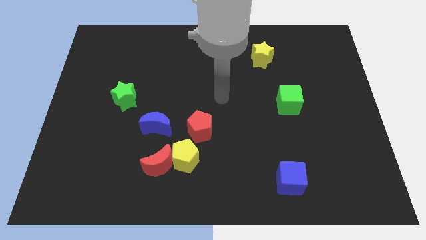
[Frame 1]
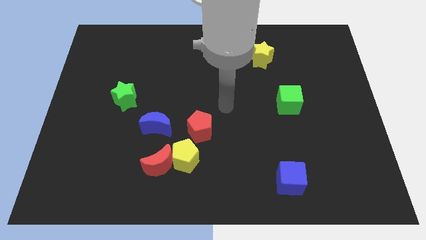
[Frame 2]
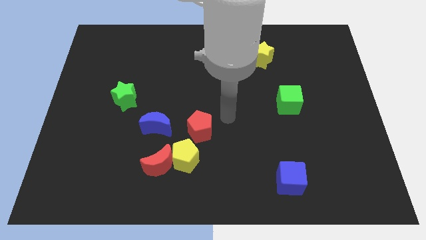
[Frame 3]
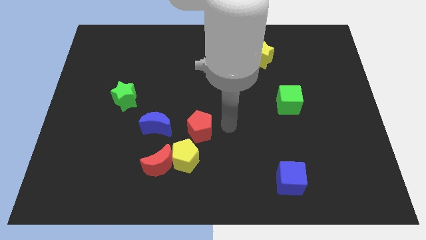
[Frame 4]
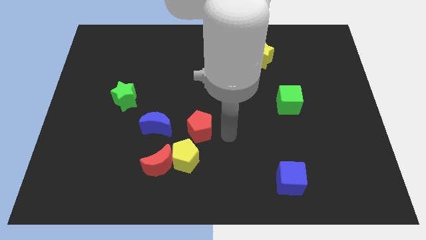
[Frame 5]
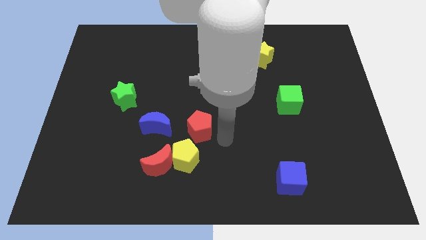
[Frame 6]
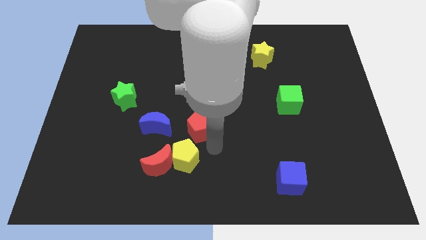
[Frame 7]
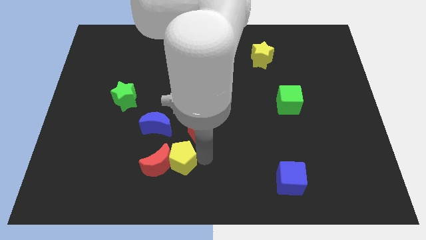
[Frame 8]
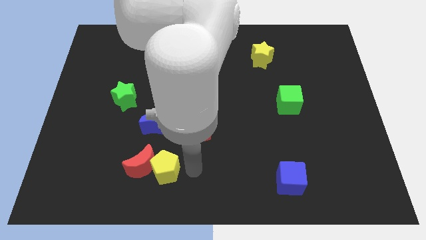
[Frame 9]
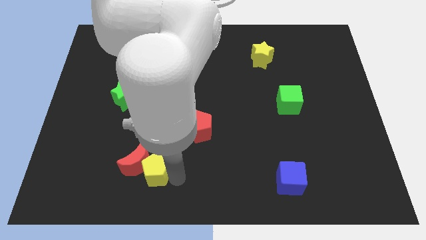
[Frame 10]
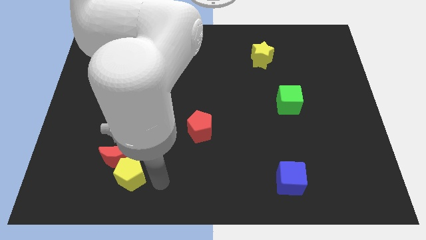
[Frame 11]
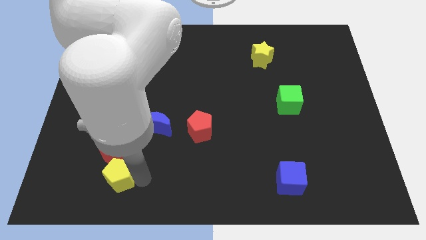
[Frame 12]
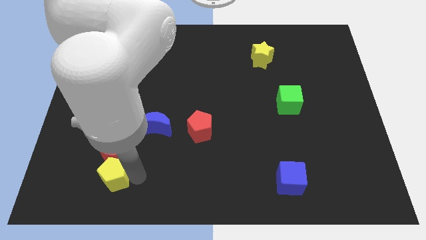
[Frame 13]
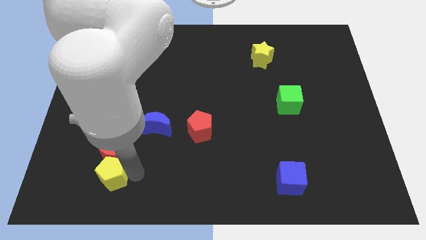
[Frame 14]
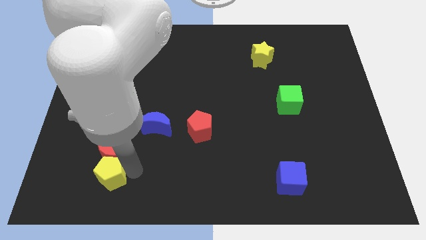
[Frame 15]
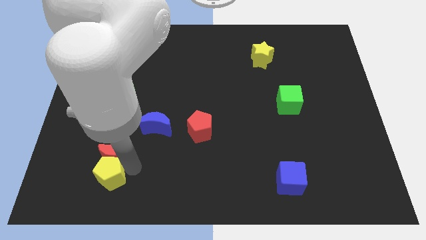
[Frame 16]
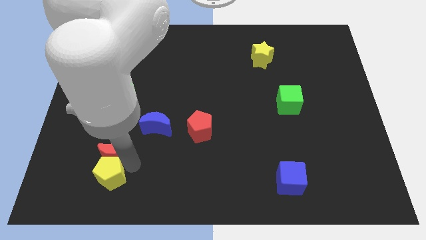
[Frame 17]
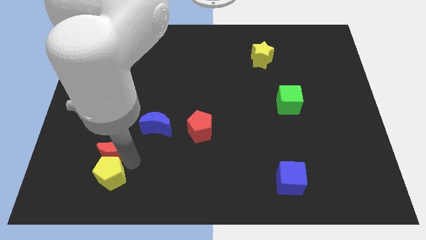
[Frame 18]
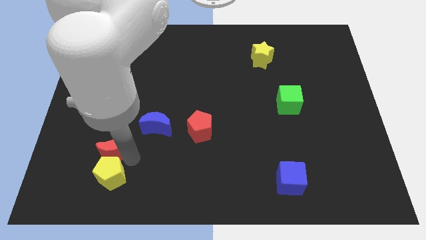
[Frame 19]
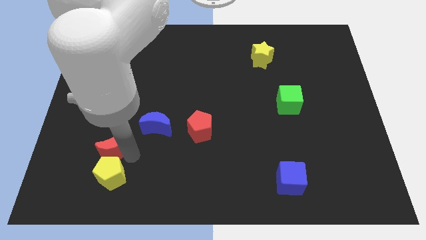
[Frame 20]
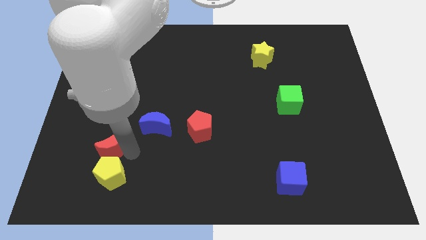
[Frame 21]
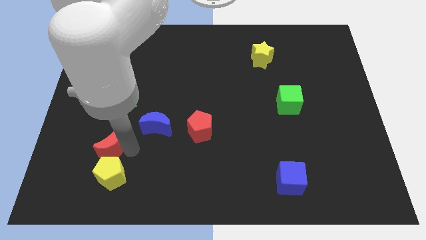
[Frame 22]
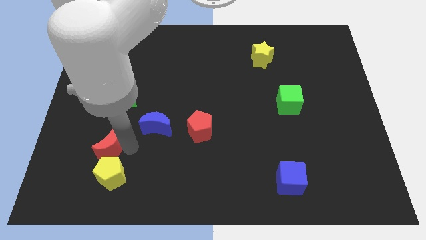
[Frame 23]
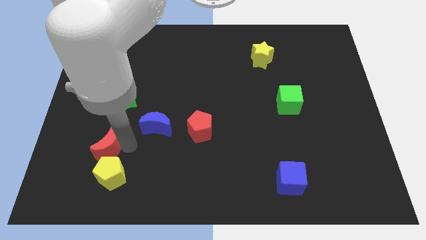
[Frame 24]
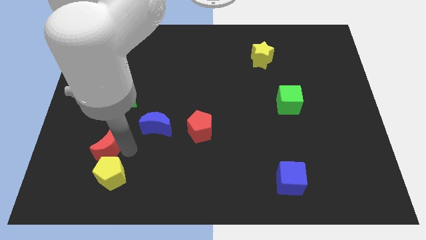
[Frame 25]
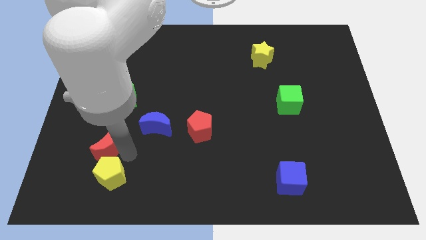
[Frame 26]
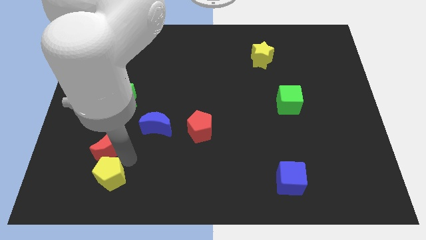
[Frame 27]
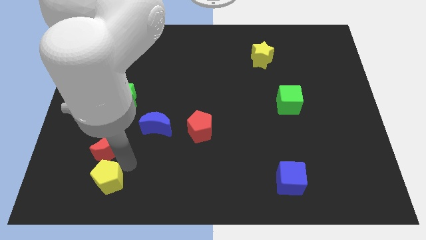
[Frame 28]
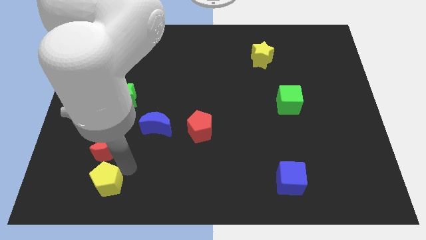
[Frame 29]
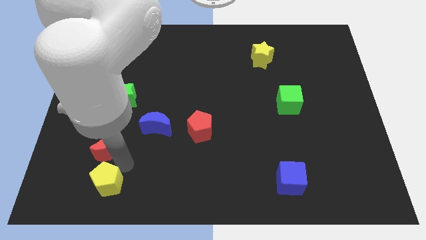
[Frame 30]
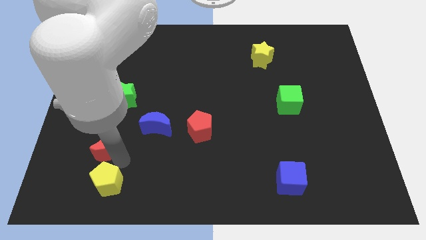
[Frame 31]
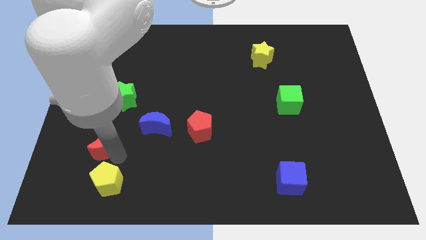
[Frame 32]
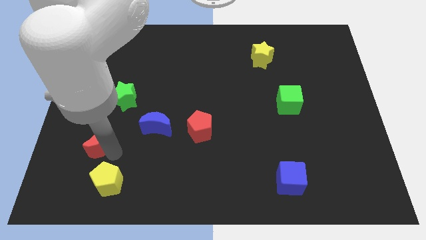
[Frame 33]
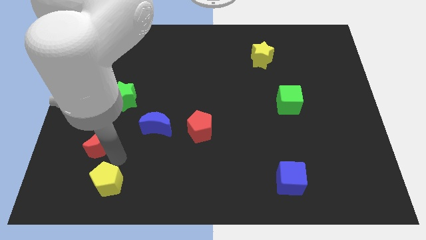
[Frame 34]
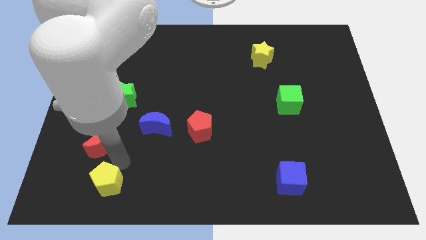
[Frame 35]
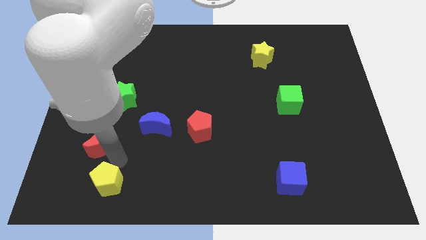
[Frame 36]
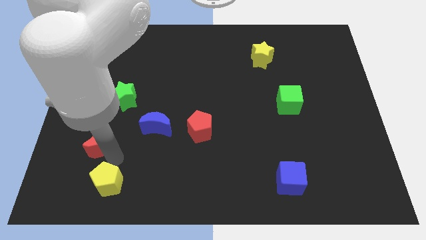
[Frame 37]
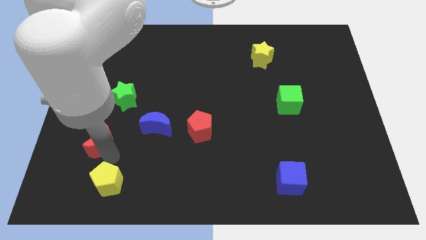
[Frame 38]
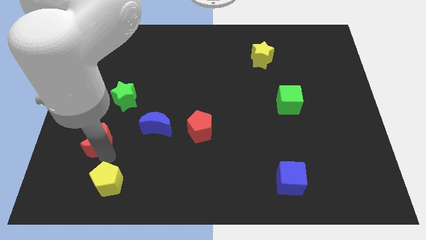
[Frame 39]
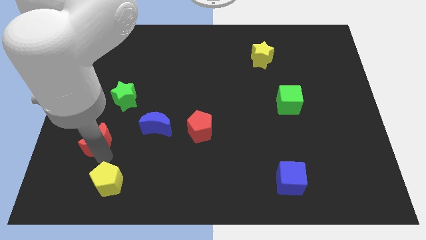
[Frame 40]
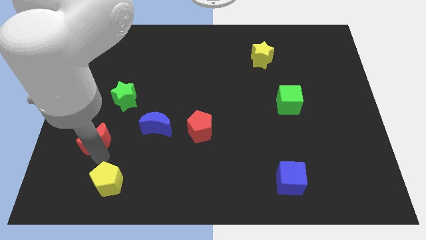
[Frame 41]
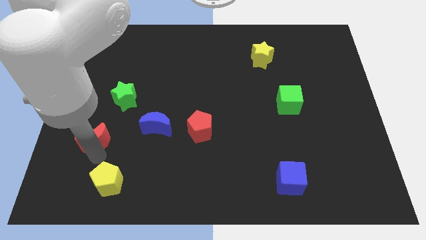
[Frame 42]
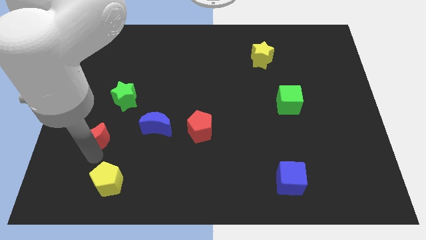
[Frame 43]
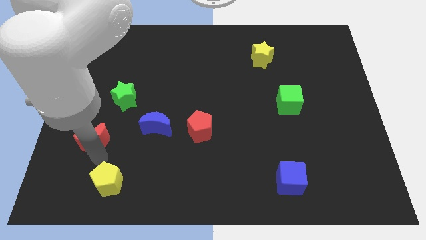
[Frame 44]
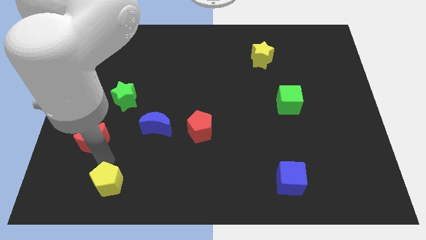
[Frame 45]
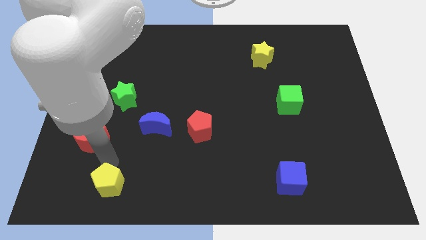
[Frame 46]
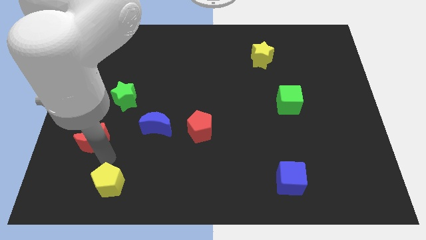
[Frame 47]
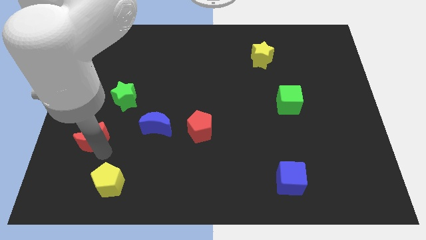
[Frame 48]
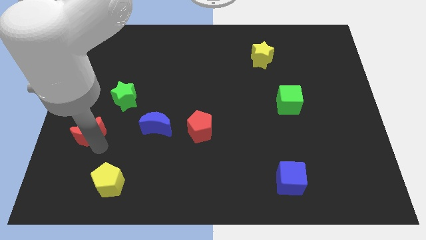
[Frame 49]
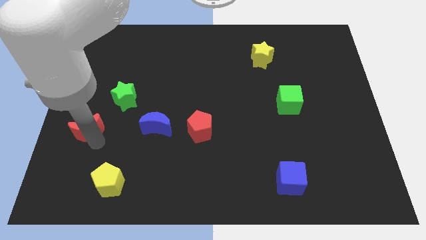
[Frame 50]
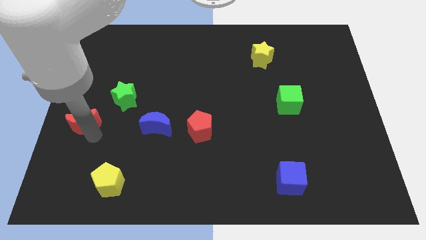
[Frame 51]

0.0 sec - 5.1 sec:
push the red moon to the center left

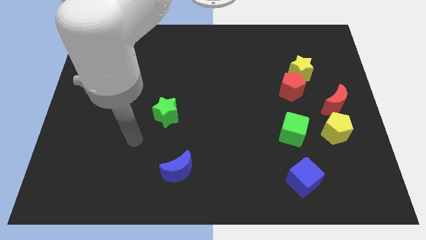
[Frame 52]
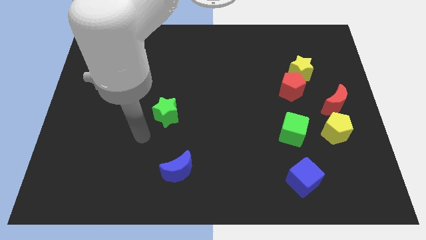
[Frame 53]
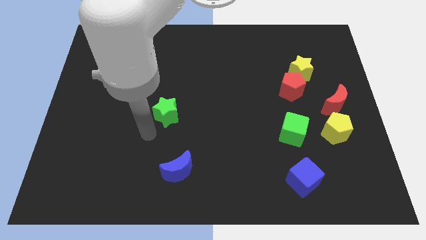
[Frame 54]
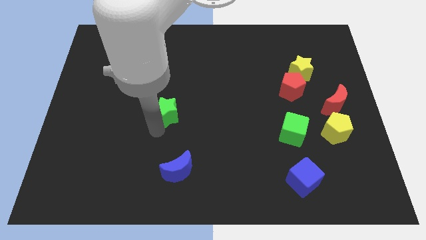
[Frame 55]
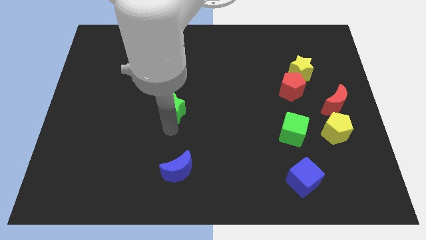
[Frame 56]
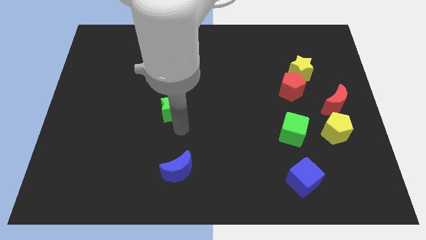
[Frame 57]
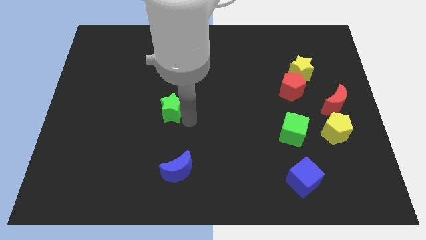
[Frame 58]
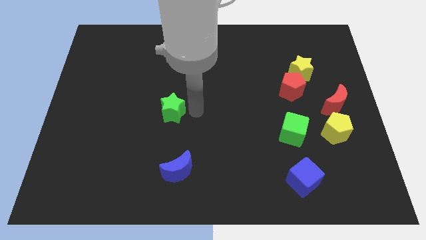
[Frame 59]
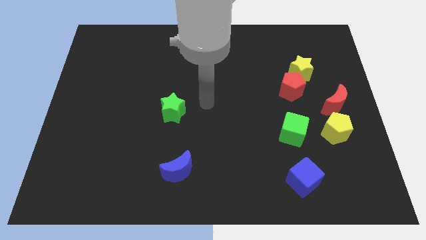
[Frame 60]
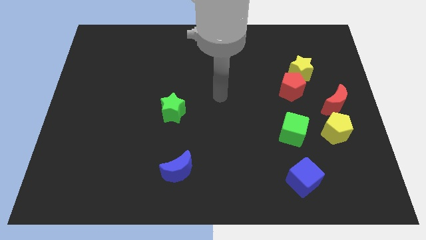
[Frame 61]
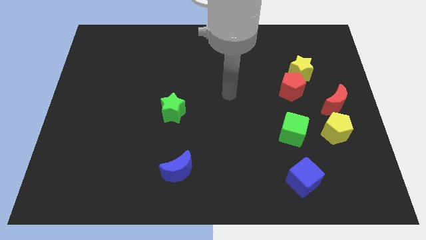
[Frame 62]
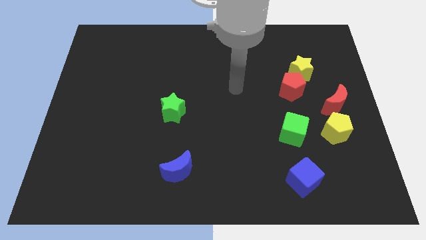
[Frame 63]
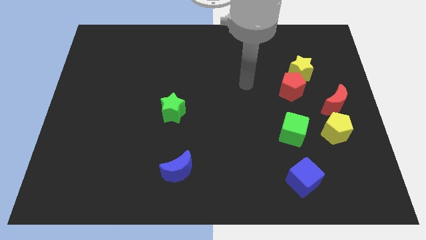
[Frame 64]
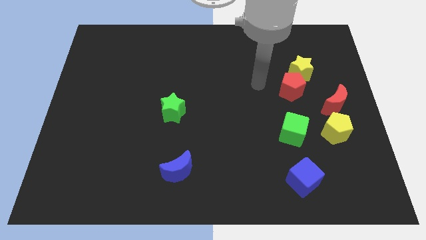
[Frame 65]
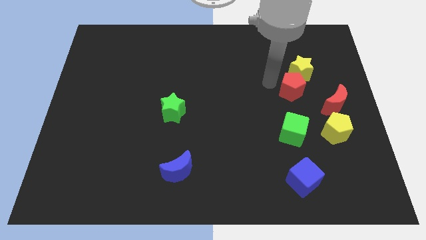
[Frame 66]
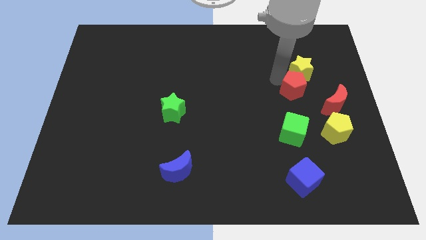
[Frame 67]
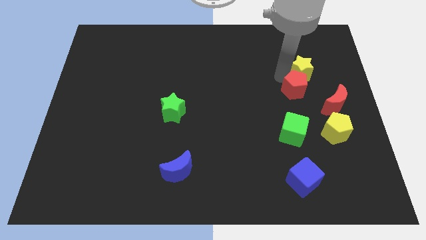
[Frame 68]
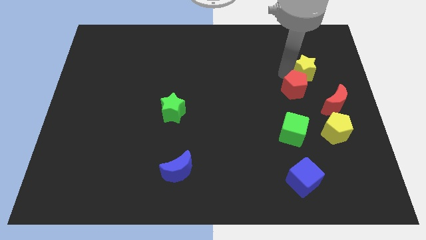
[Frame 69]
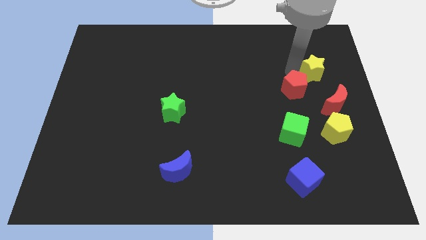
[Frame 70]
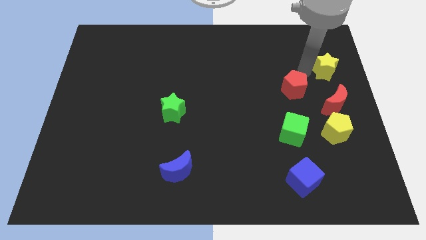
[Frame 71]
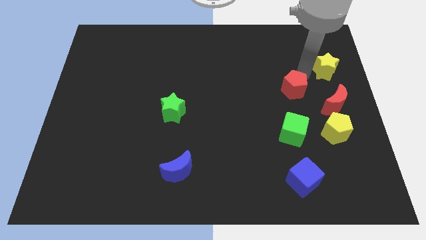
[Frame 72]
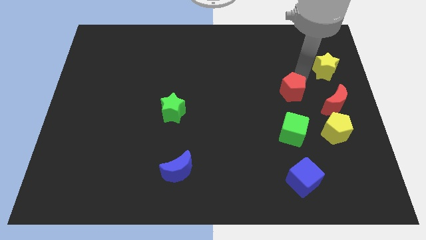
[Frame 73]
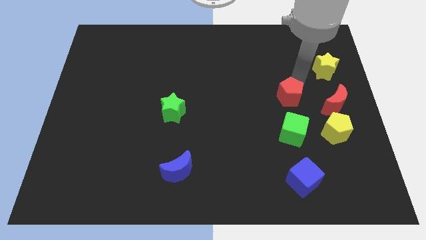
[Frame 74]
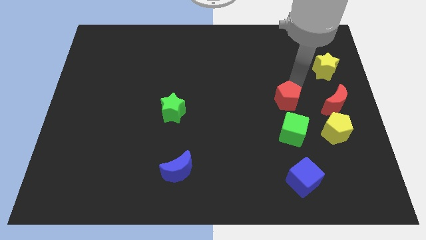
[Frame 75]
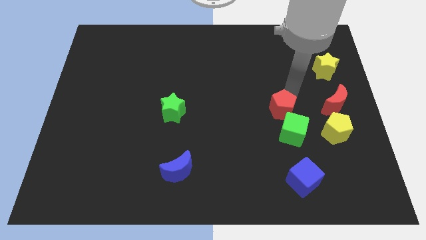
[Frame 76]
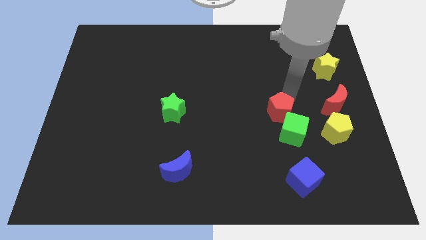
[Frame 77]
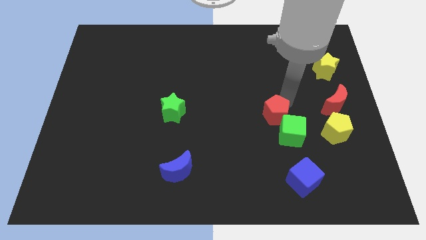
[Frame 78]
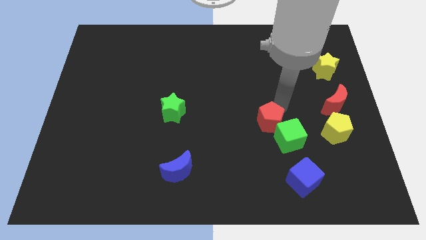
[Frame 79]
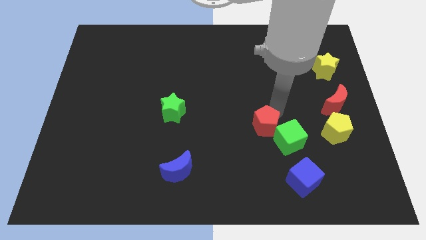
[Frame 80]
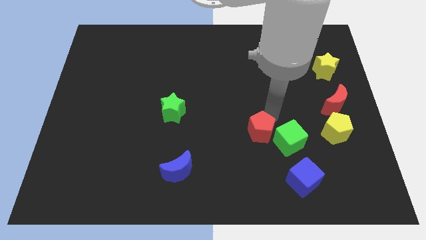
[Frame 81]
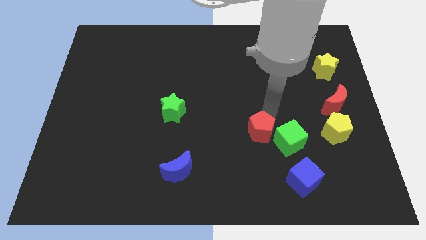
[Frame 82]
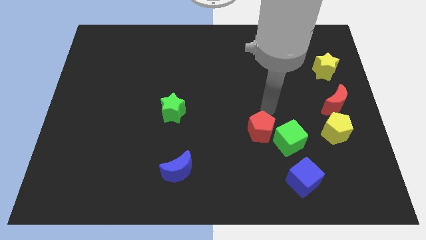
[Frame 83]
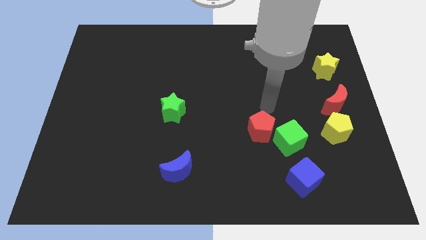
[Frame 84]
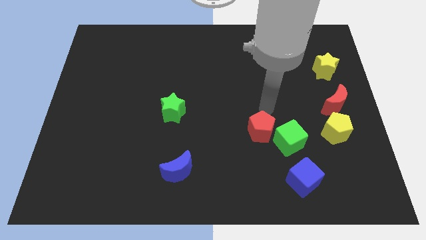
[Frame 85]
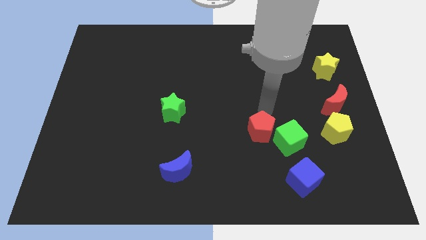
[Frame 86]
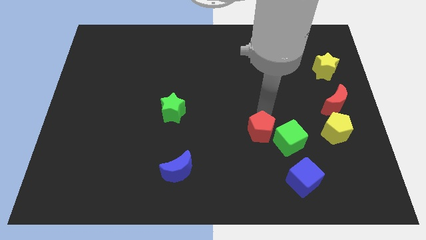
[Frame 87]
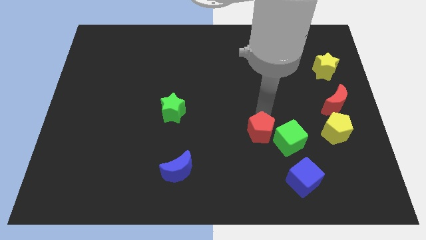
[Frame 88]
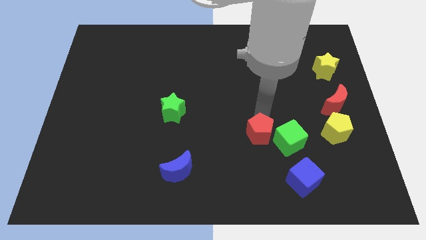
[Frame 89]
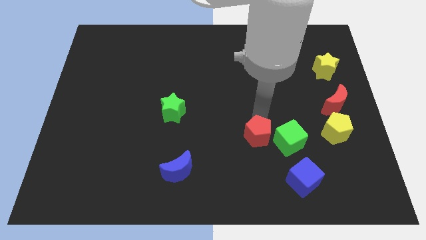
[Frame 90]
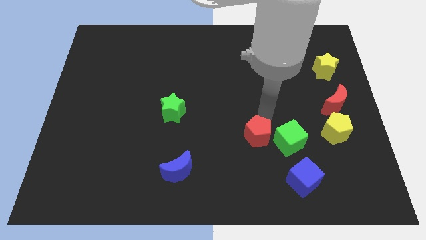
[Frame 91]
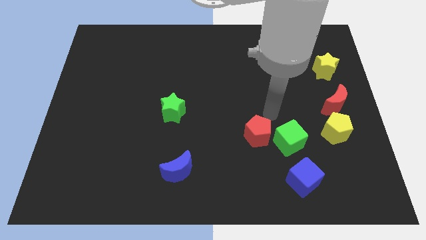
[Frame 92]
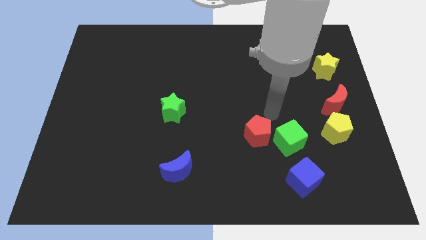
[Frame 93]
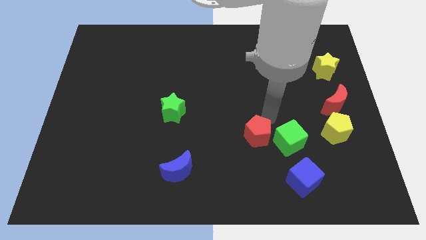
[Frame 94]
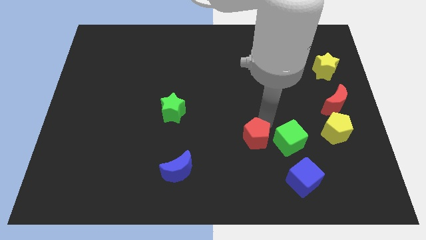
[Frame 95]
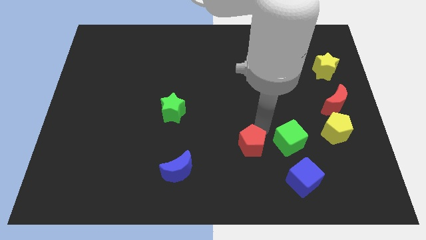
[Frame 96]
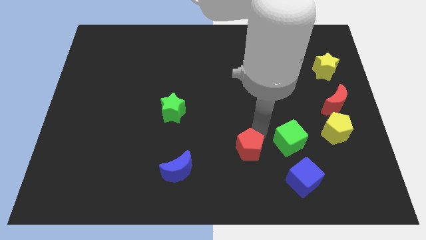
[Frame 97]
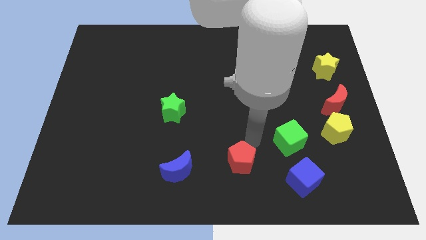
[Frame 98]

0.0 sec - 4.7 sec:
slide the red pentagon to the bottom
